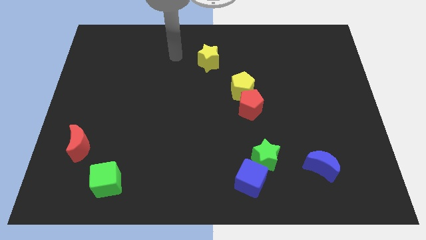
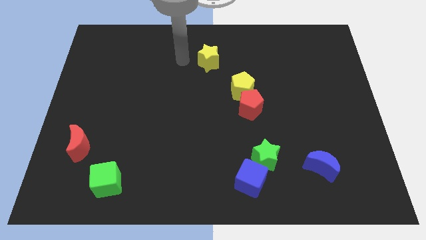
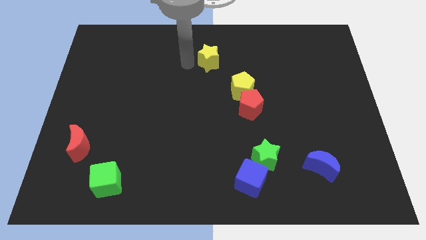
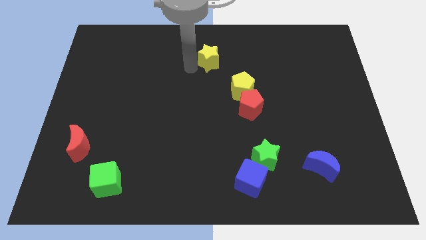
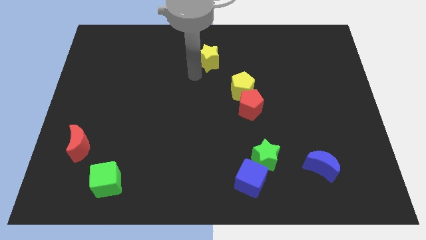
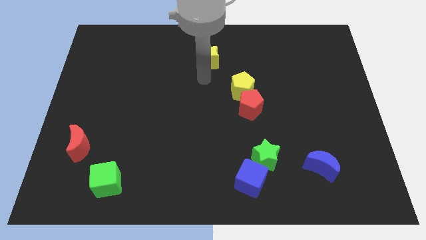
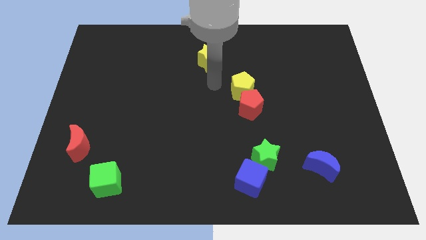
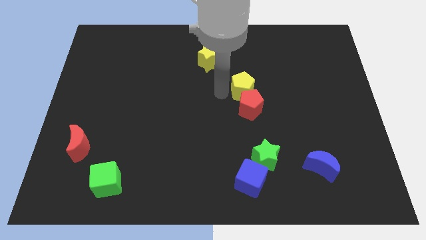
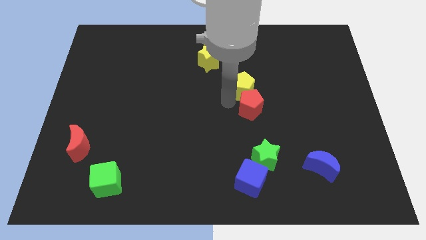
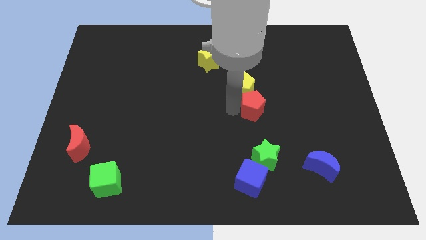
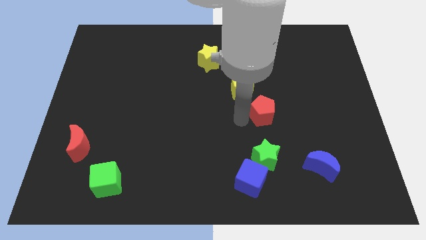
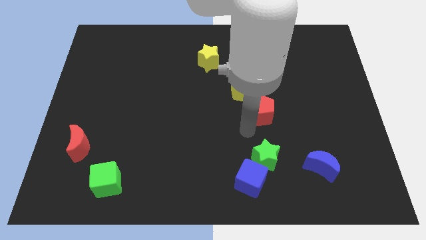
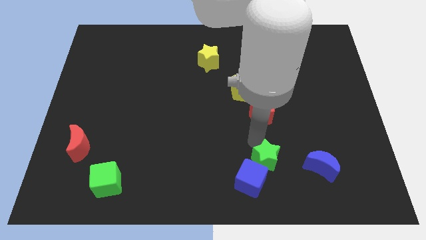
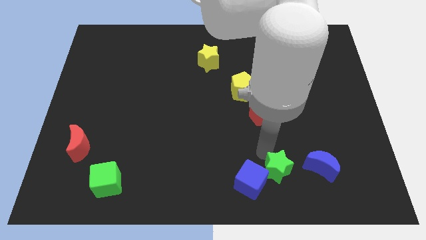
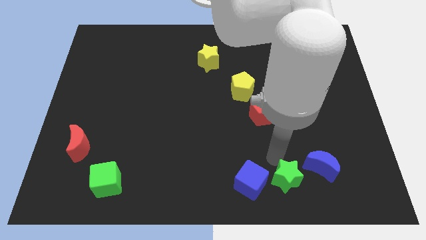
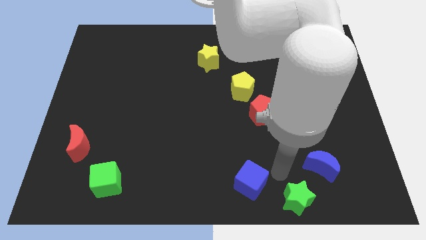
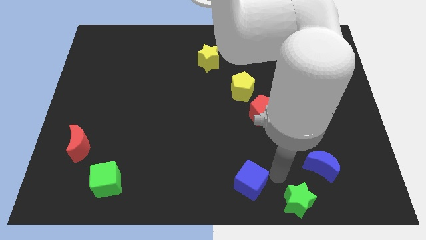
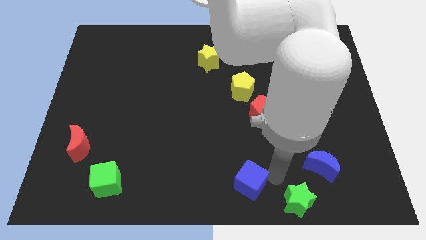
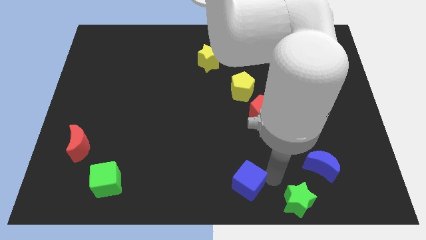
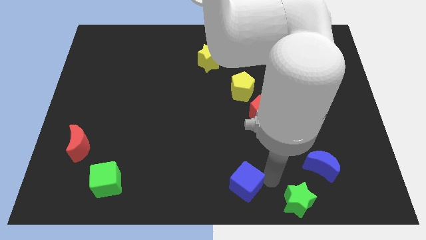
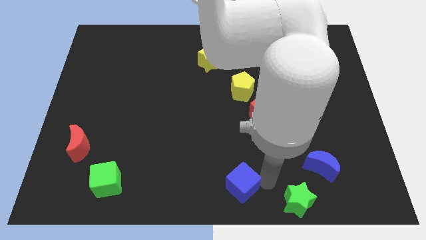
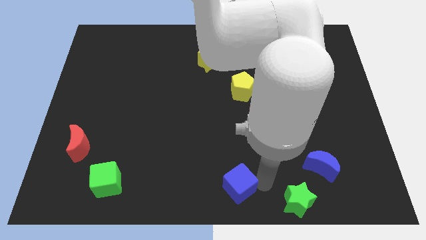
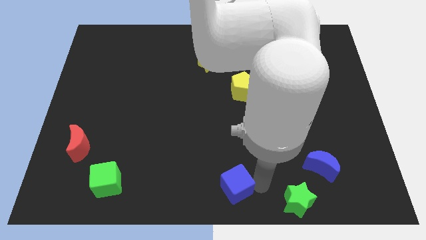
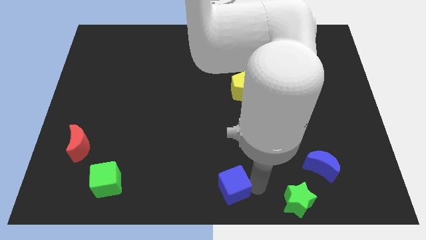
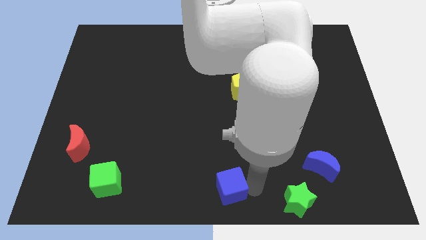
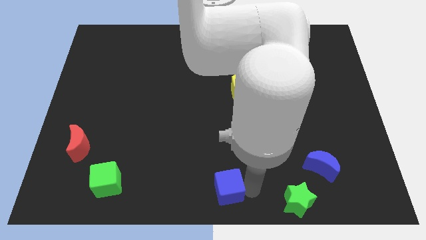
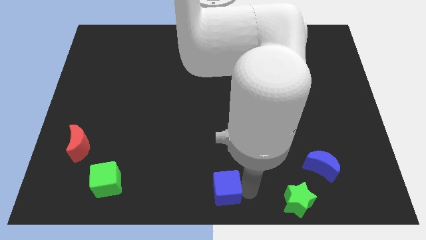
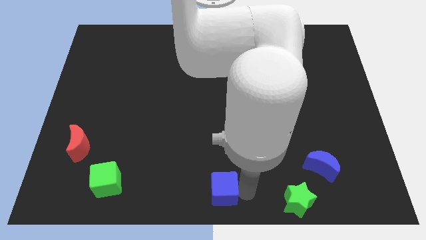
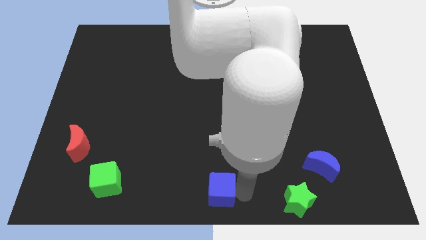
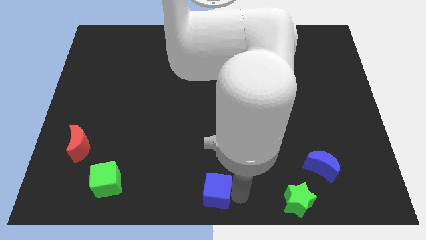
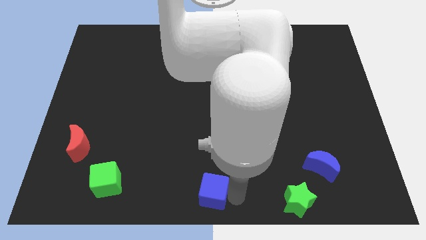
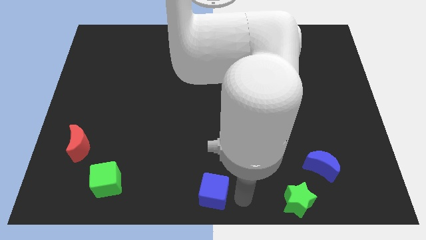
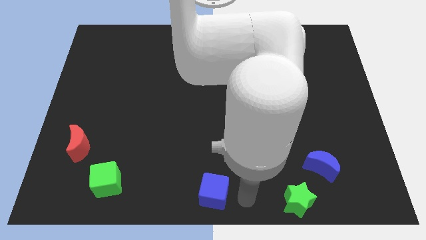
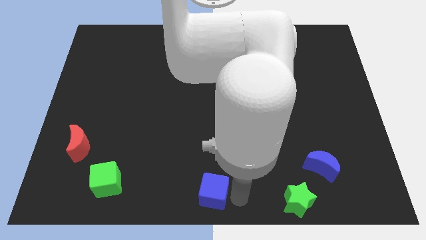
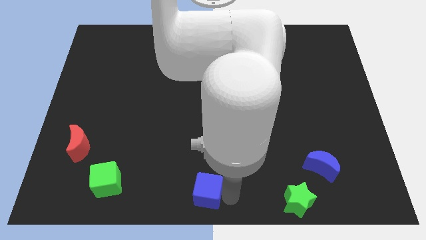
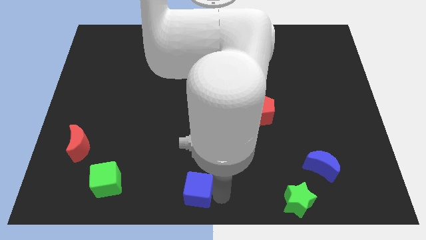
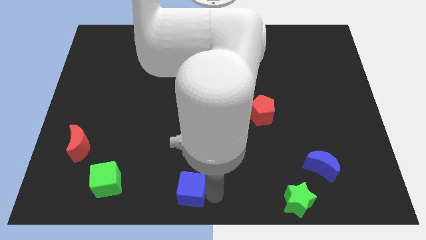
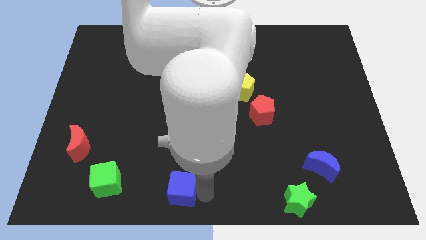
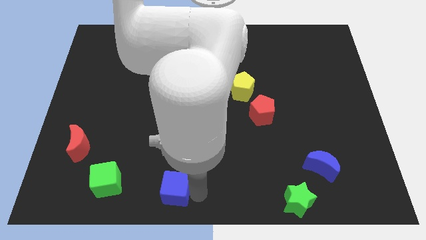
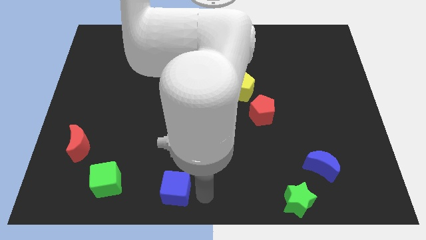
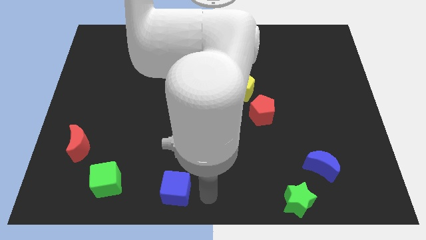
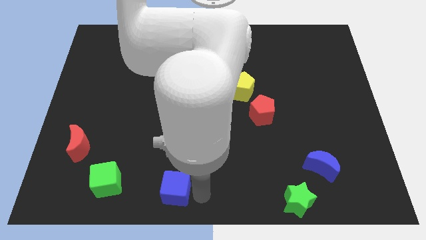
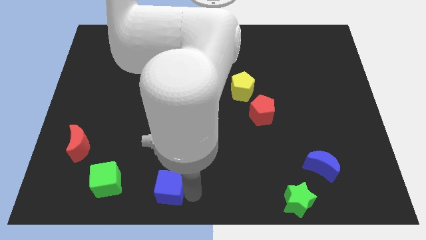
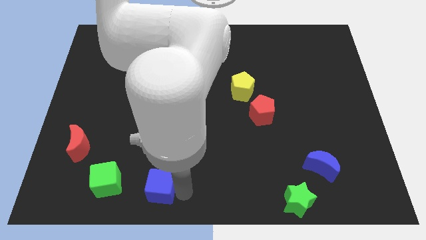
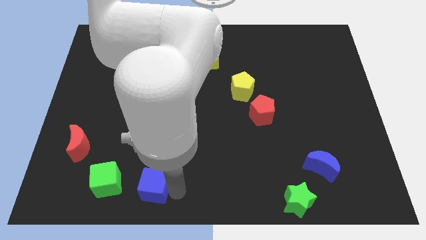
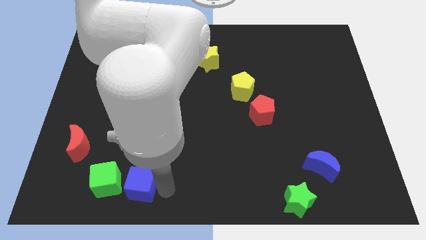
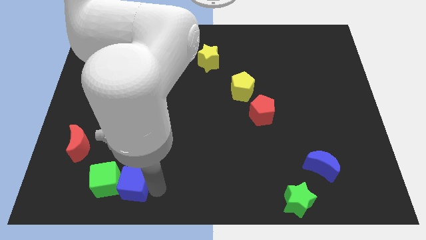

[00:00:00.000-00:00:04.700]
slide the blue cube towards the green cube

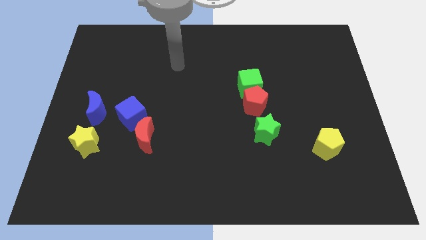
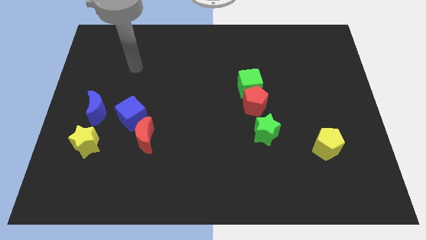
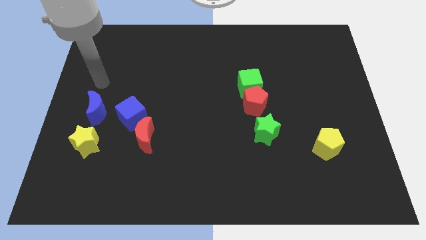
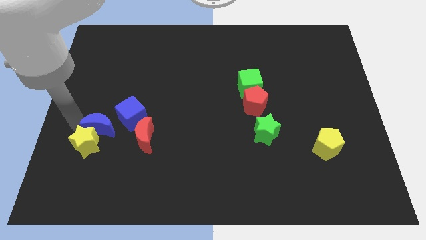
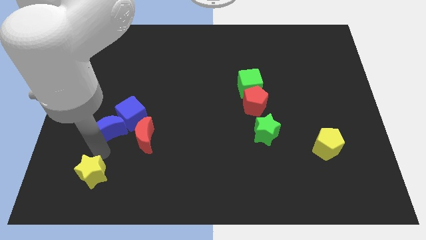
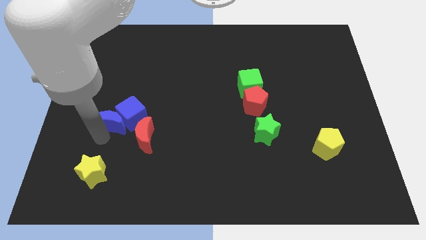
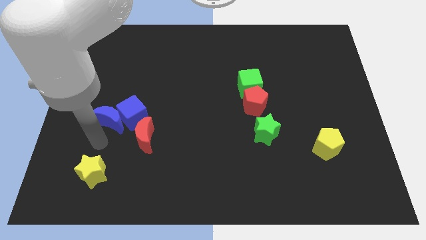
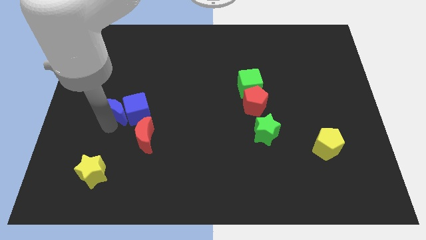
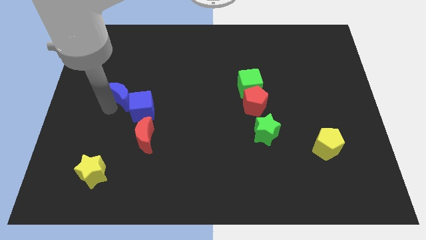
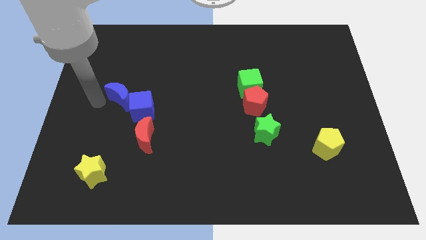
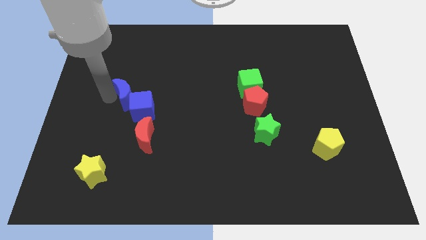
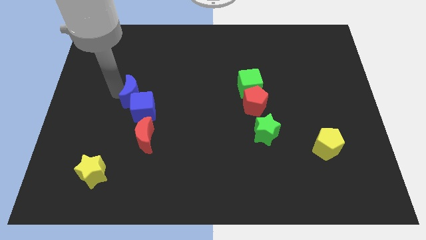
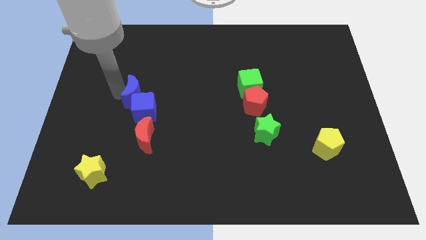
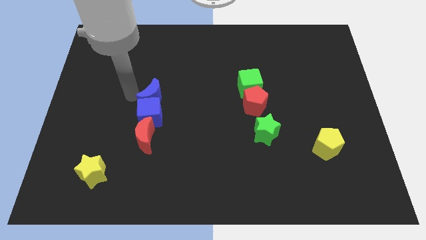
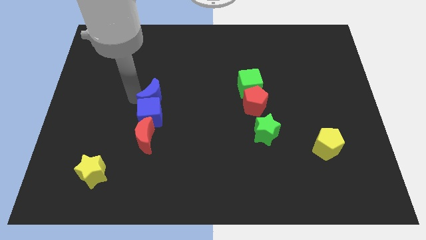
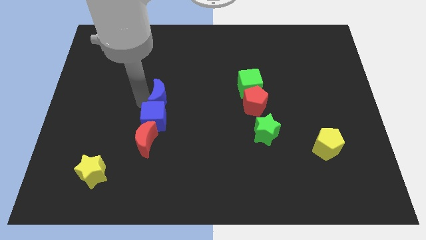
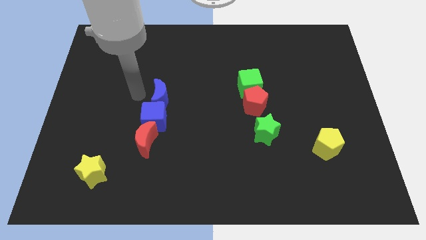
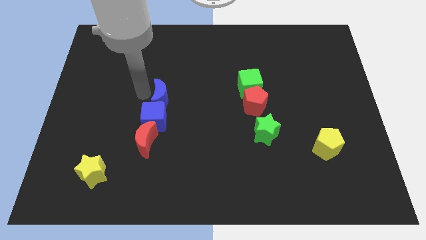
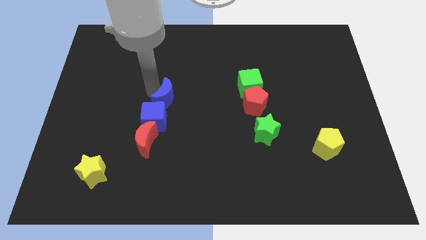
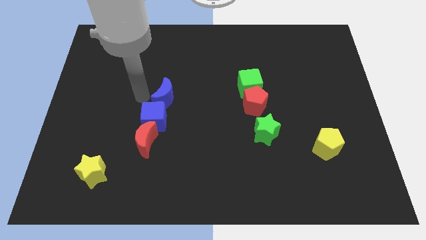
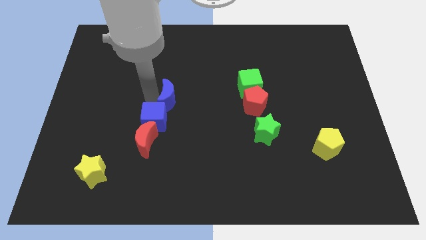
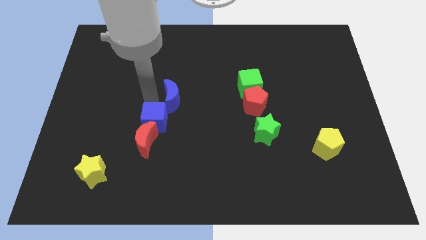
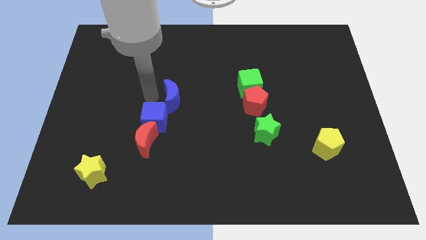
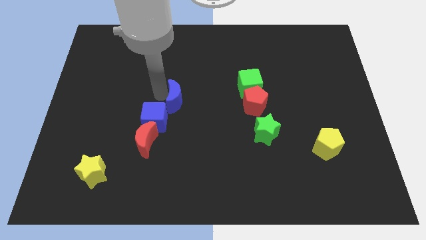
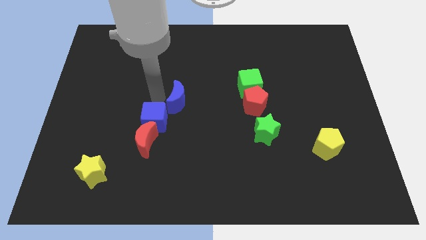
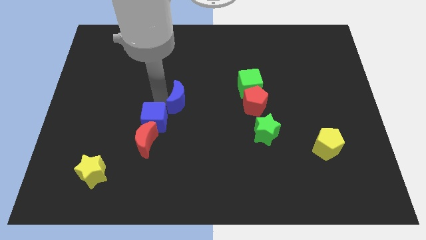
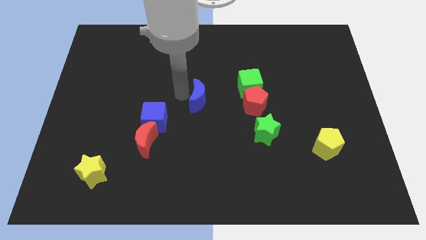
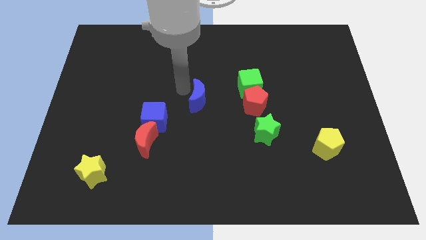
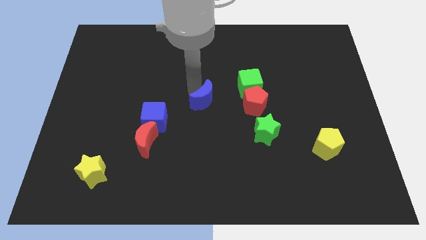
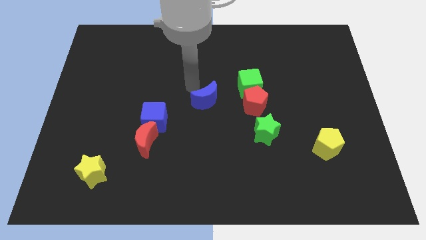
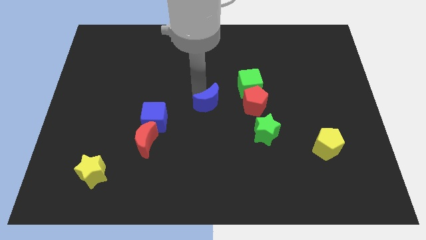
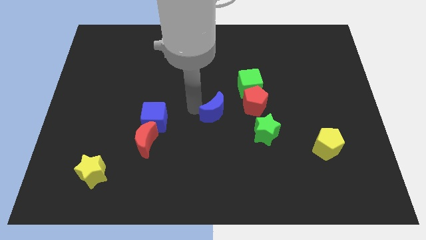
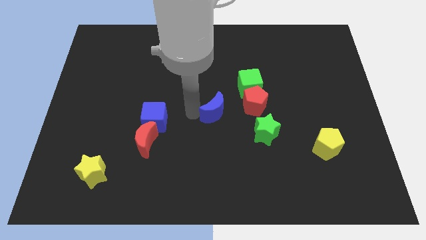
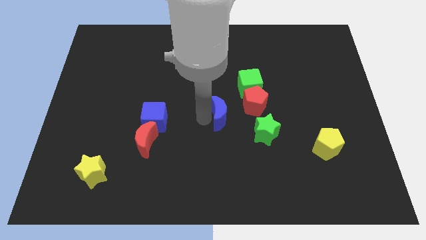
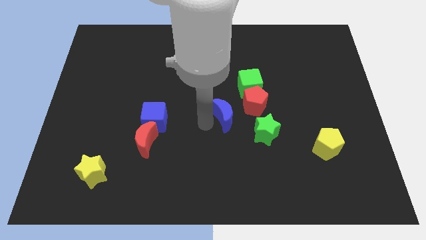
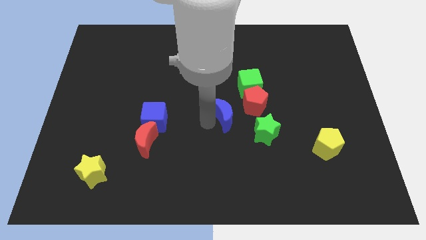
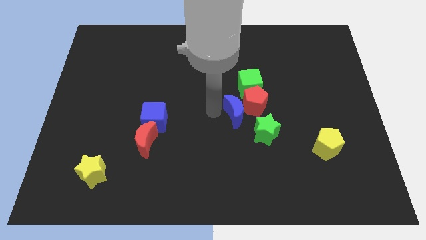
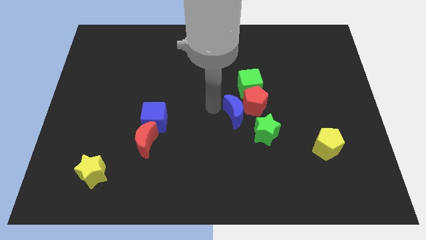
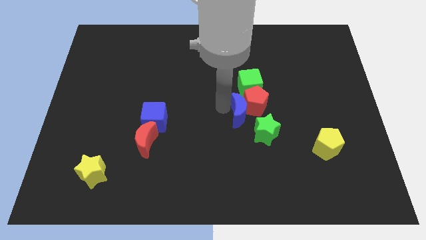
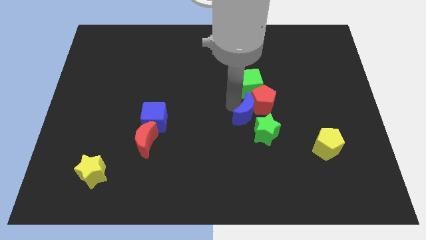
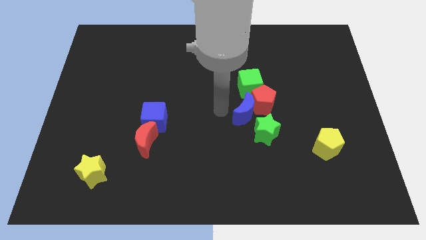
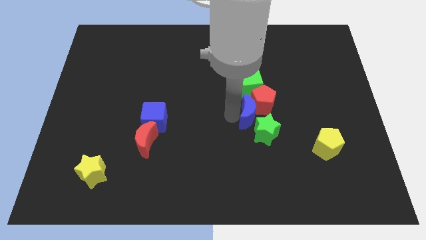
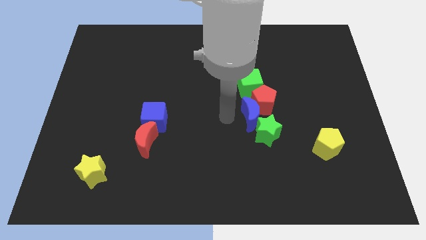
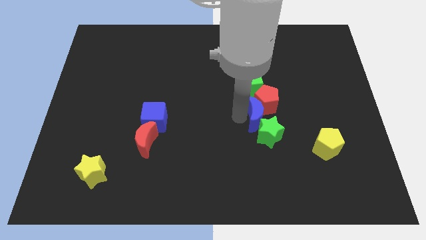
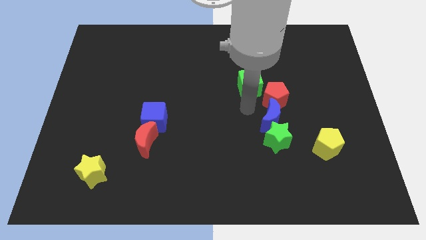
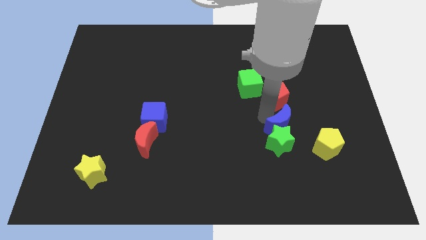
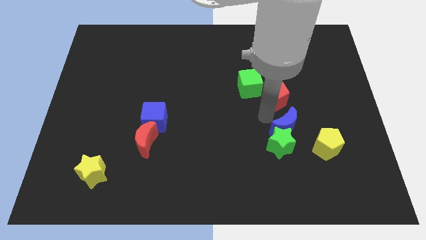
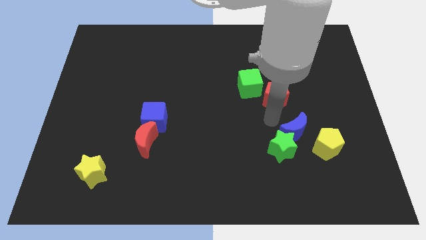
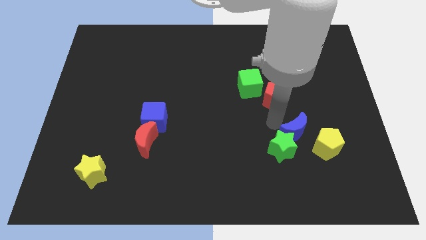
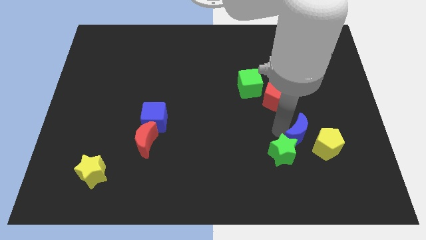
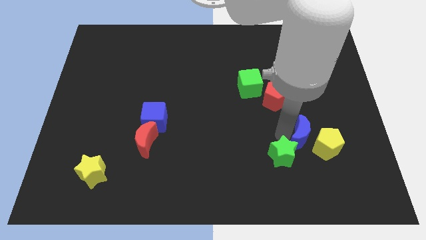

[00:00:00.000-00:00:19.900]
put the blue moon close to the yellow pentagon
